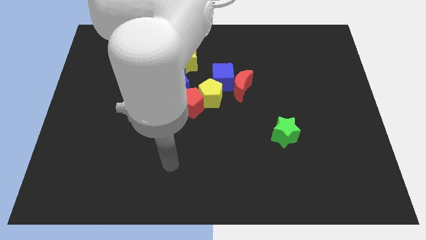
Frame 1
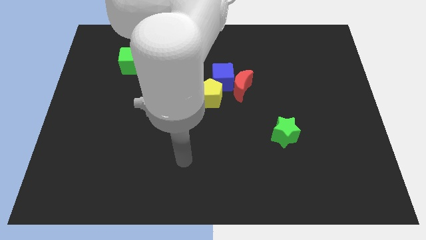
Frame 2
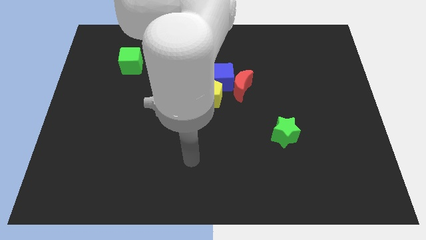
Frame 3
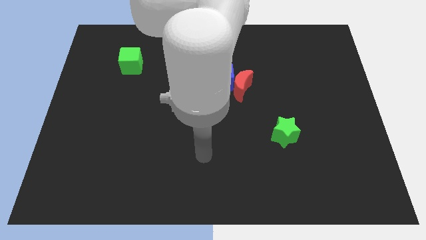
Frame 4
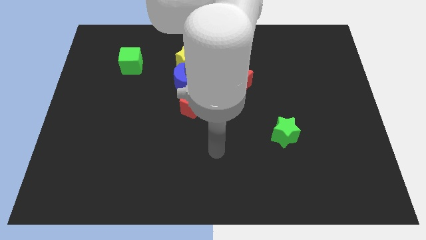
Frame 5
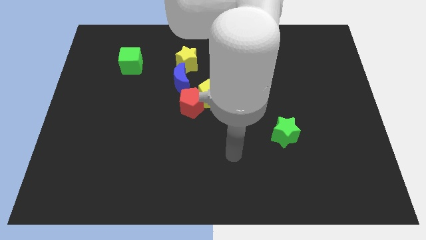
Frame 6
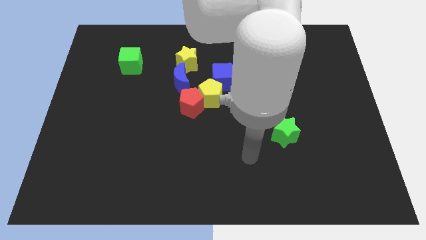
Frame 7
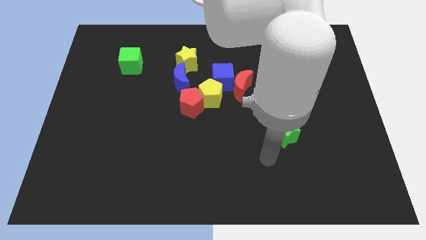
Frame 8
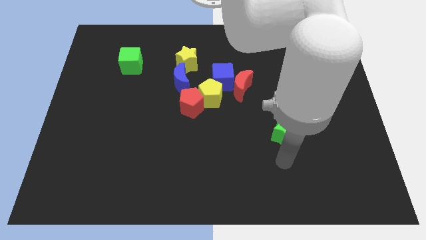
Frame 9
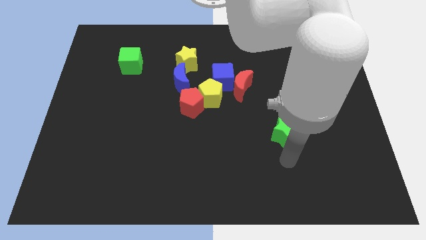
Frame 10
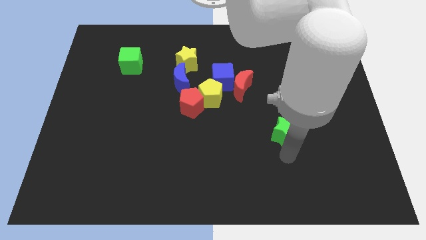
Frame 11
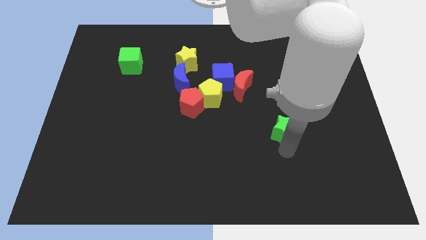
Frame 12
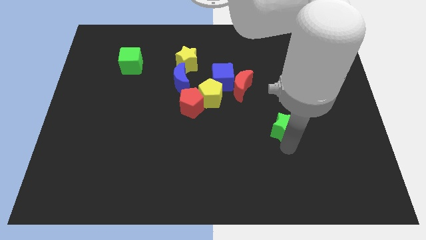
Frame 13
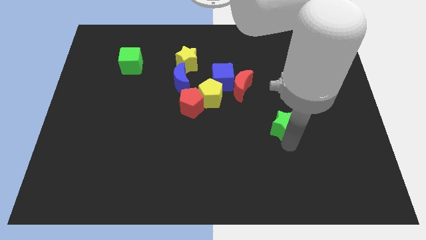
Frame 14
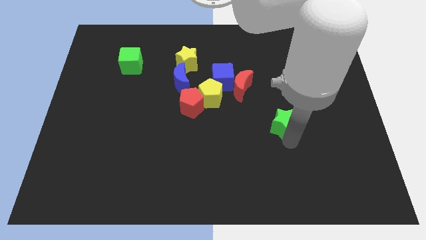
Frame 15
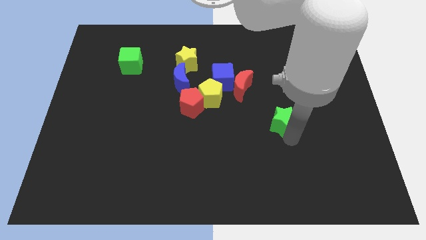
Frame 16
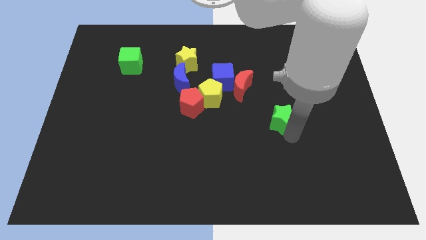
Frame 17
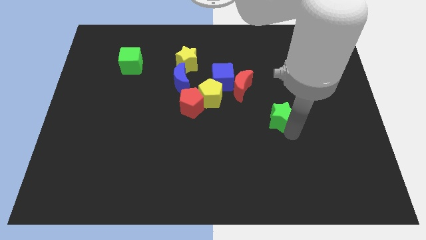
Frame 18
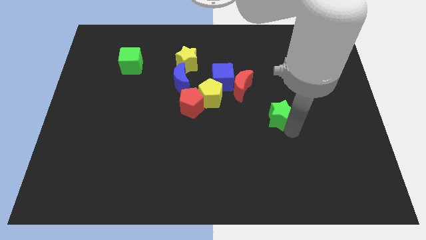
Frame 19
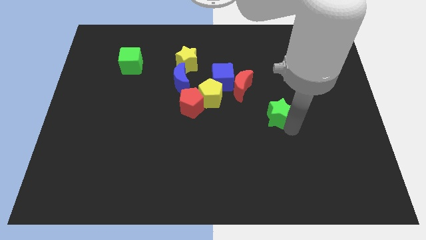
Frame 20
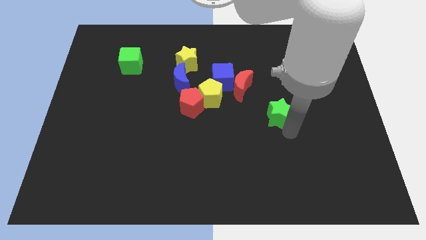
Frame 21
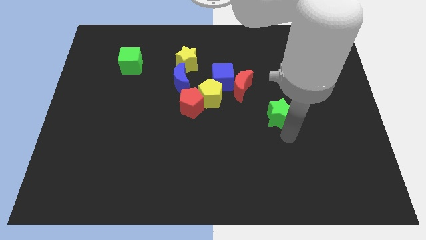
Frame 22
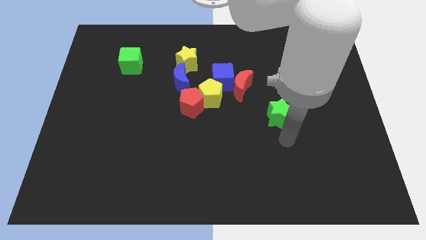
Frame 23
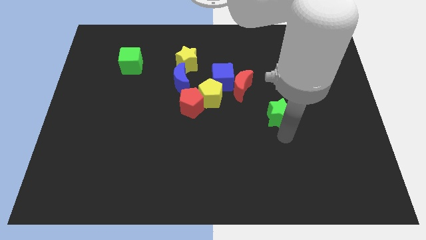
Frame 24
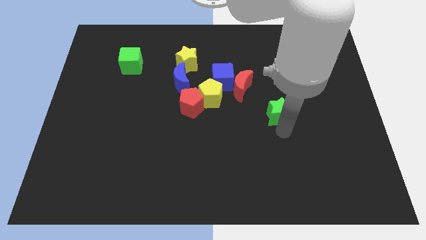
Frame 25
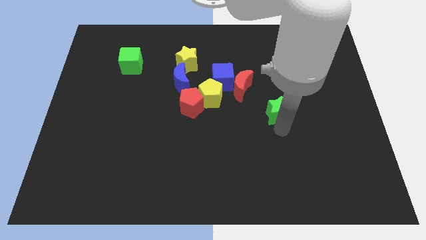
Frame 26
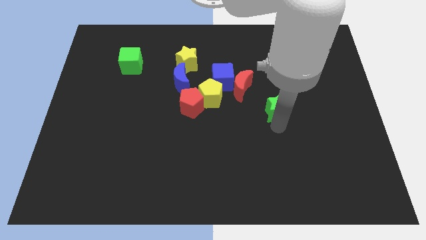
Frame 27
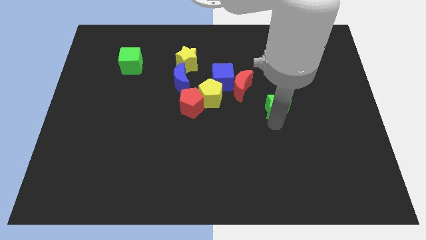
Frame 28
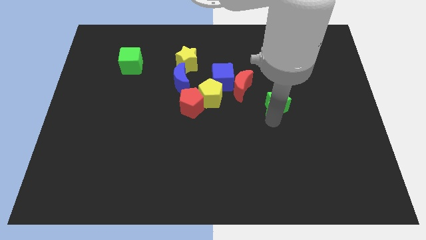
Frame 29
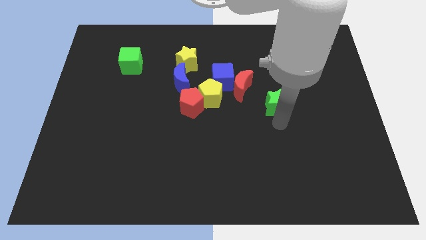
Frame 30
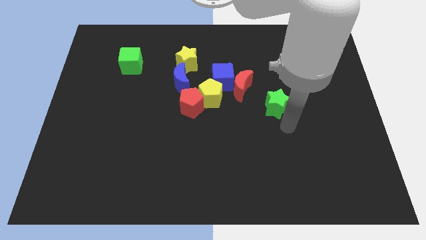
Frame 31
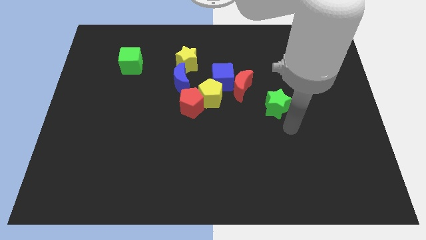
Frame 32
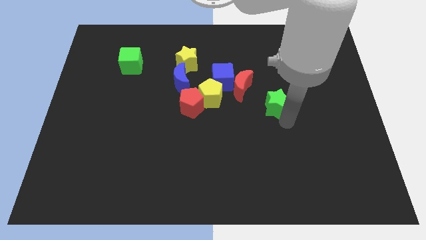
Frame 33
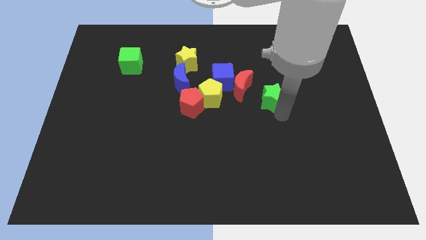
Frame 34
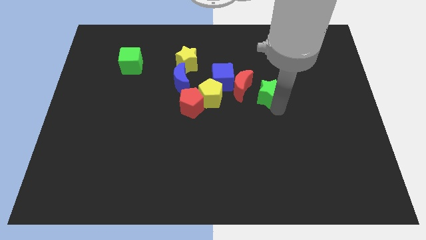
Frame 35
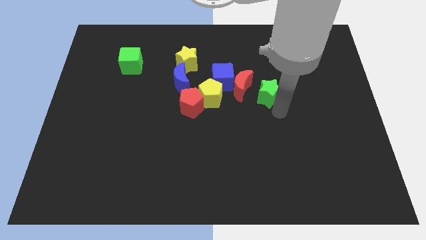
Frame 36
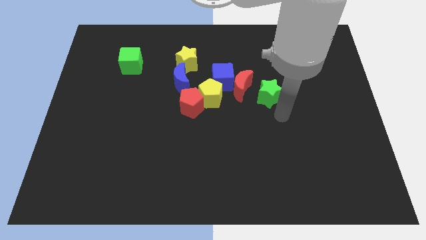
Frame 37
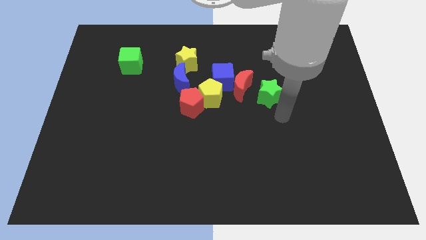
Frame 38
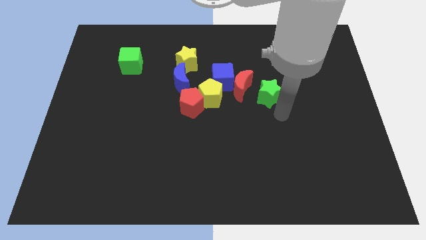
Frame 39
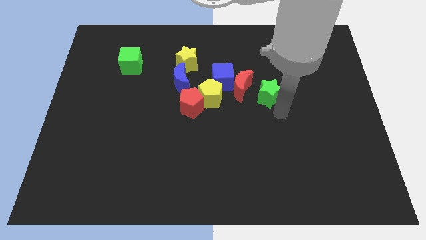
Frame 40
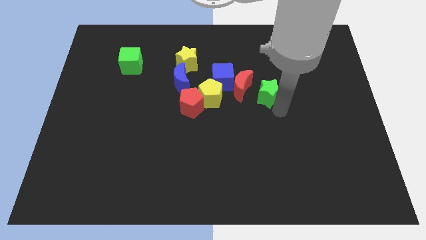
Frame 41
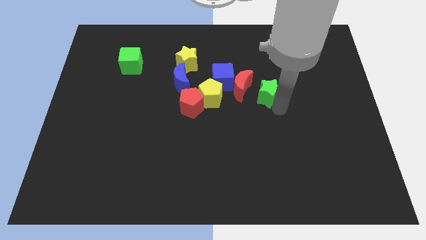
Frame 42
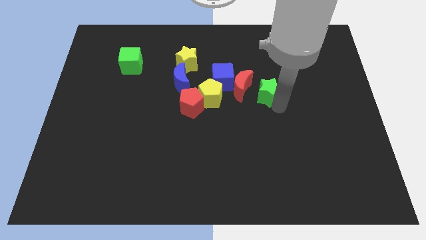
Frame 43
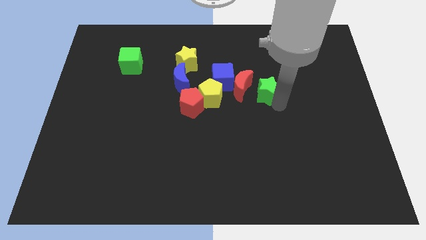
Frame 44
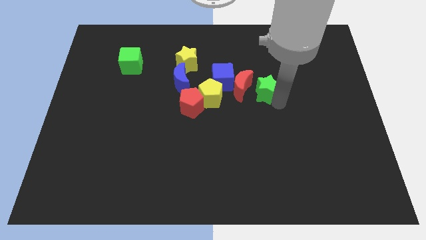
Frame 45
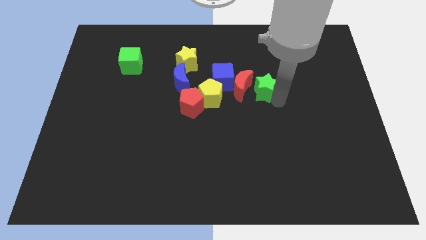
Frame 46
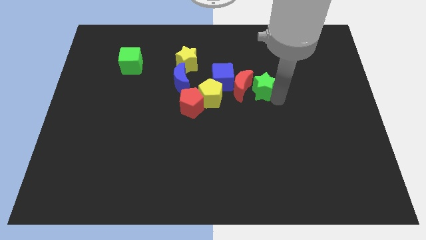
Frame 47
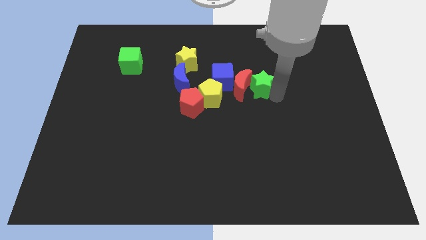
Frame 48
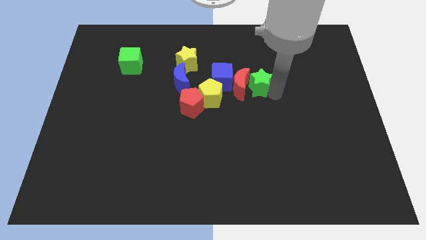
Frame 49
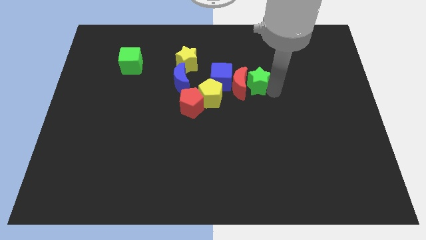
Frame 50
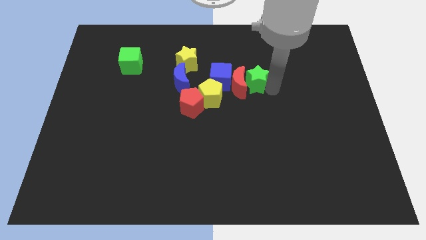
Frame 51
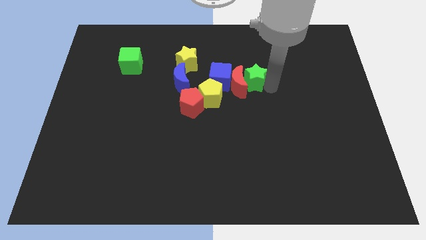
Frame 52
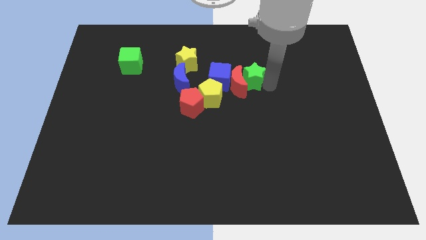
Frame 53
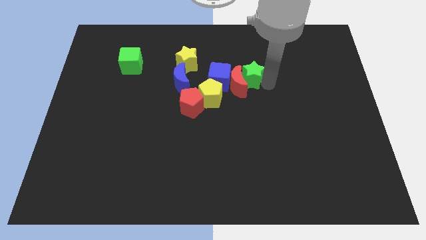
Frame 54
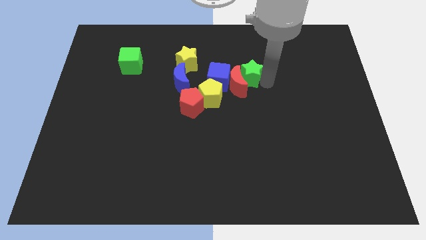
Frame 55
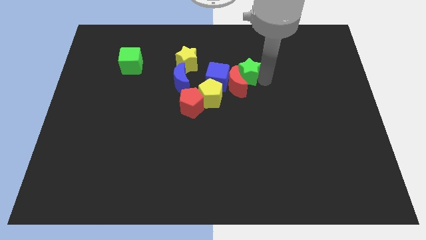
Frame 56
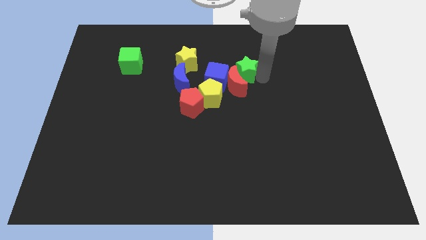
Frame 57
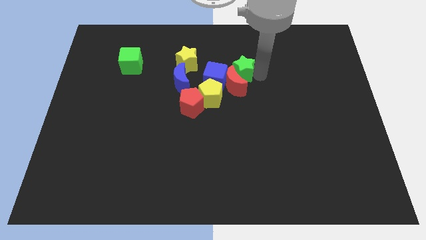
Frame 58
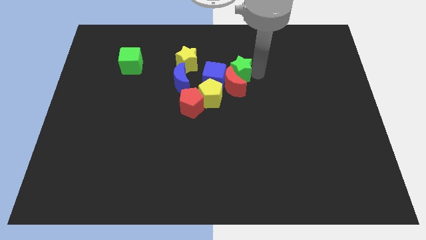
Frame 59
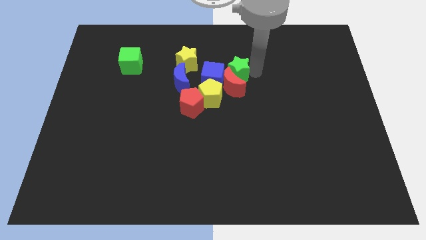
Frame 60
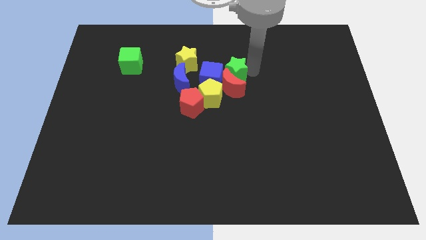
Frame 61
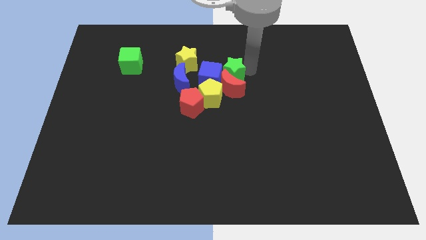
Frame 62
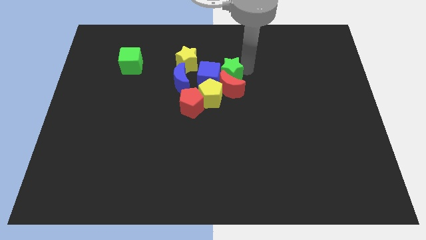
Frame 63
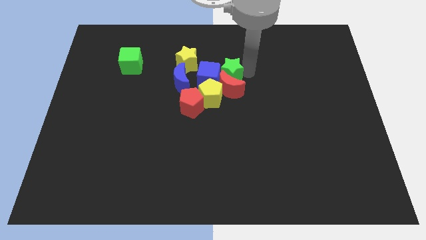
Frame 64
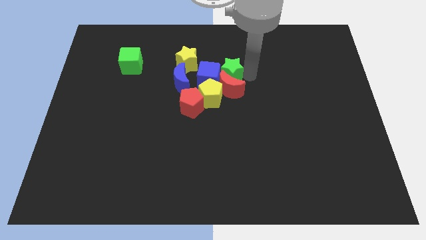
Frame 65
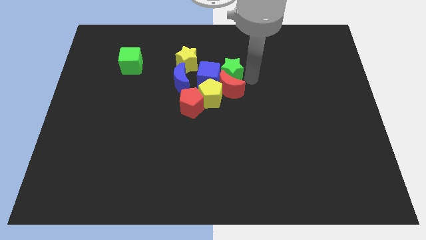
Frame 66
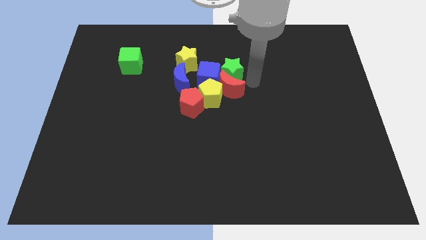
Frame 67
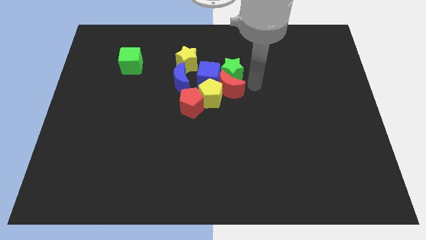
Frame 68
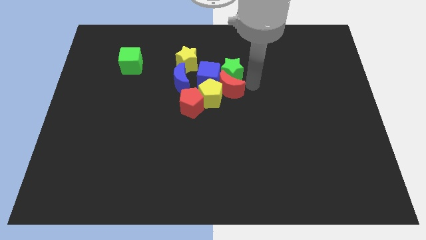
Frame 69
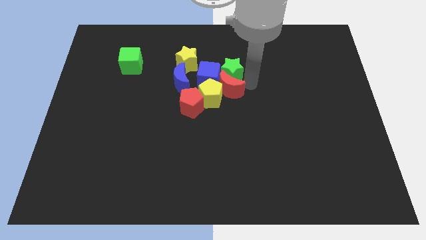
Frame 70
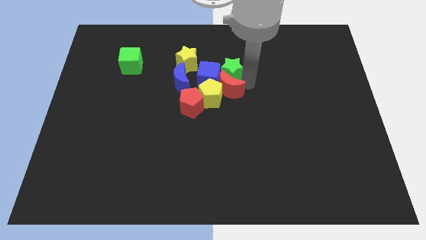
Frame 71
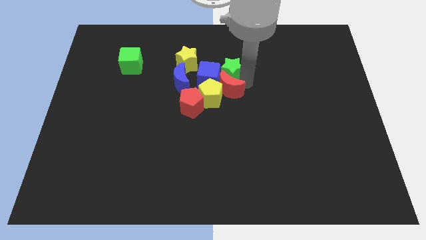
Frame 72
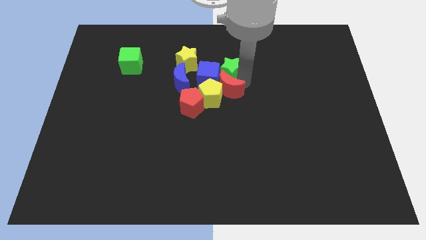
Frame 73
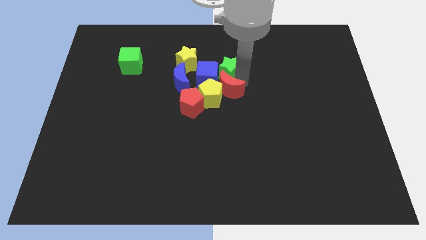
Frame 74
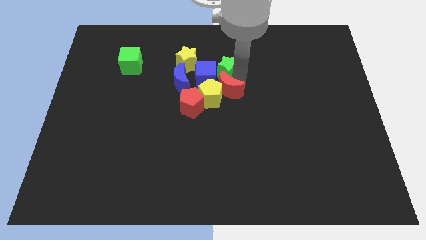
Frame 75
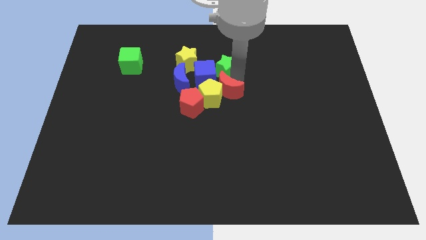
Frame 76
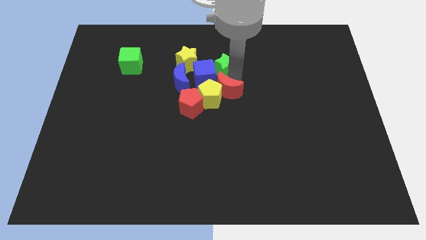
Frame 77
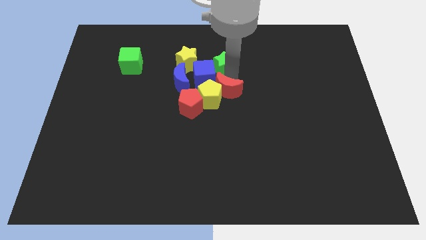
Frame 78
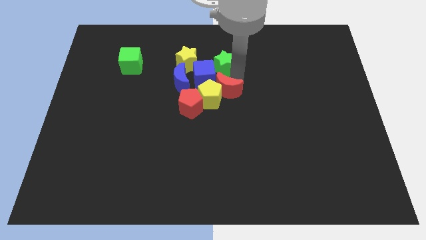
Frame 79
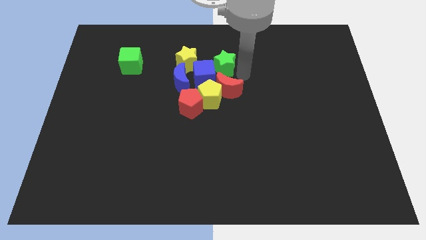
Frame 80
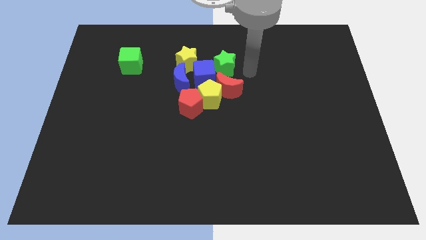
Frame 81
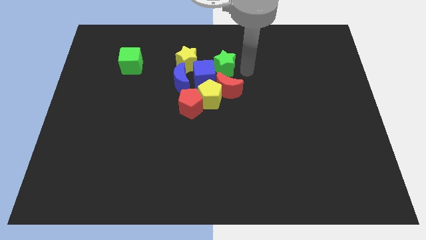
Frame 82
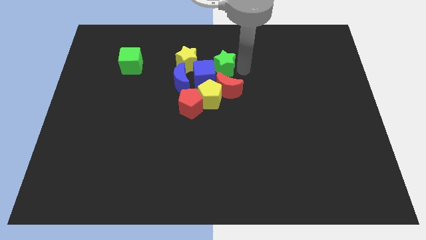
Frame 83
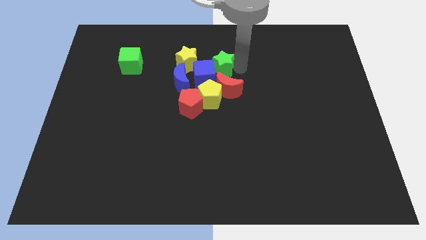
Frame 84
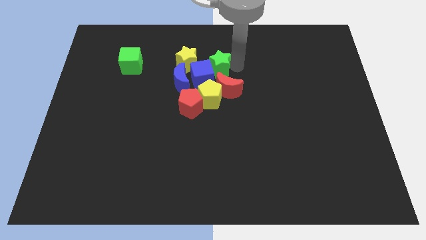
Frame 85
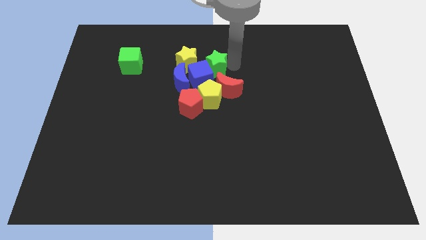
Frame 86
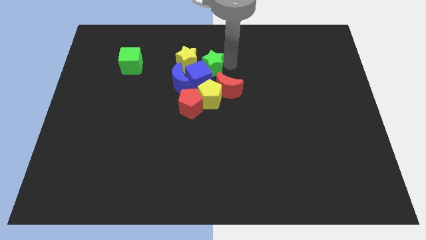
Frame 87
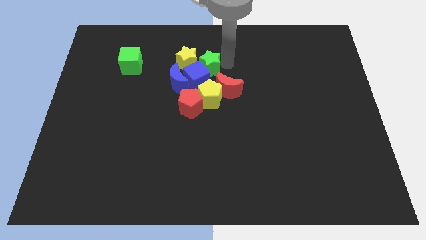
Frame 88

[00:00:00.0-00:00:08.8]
push the green star close to the yellow star
